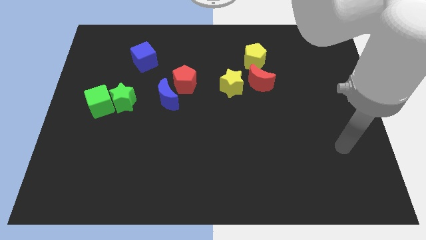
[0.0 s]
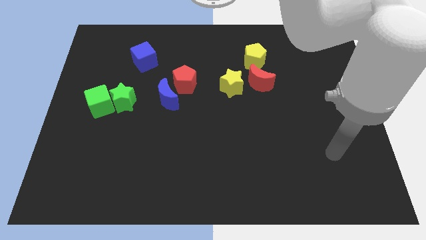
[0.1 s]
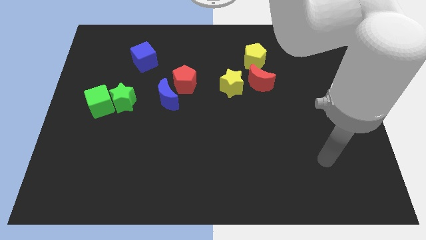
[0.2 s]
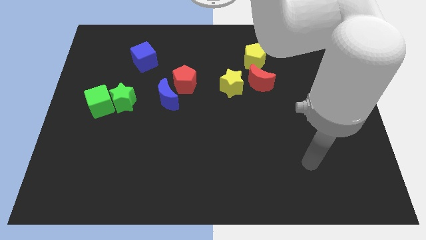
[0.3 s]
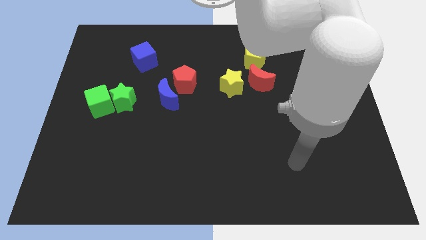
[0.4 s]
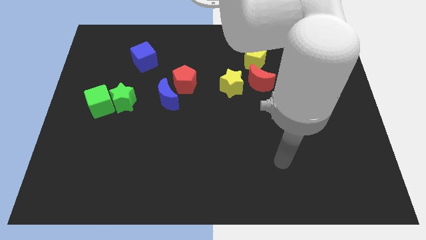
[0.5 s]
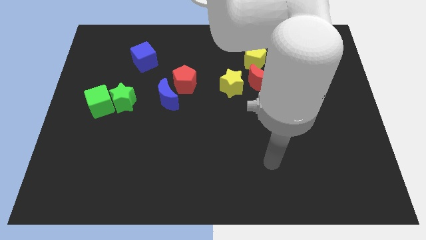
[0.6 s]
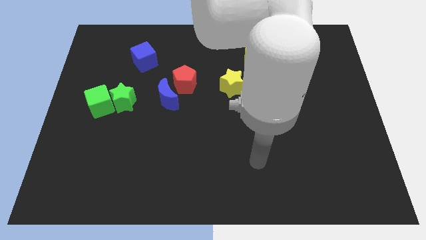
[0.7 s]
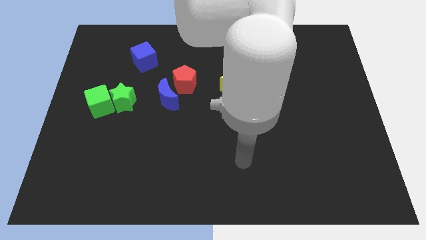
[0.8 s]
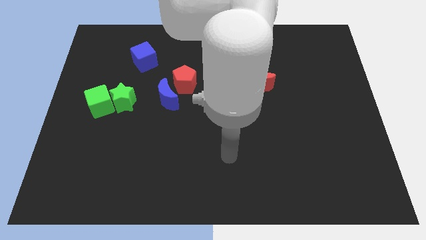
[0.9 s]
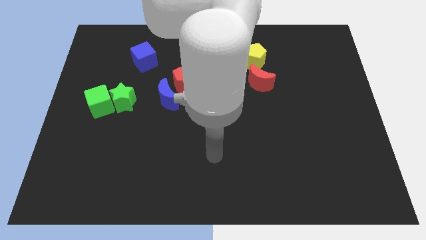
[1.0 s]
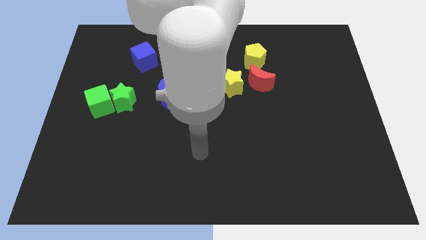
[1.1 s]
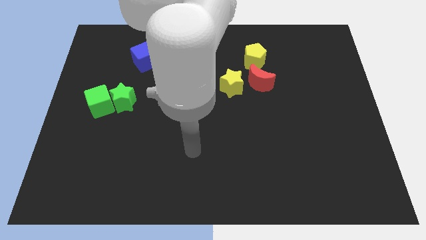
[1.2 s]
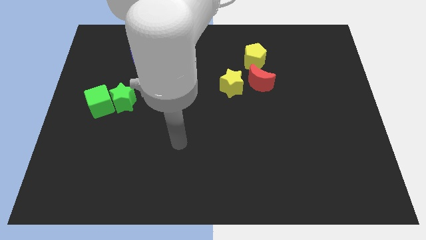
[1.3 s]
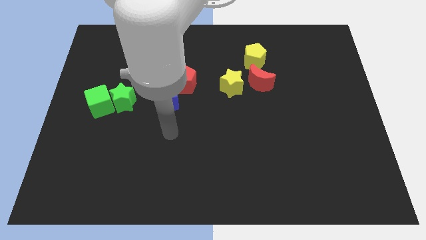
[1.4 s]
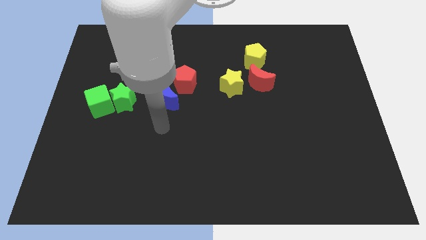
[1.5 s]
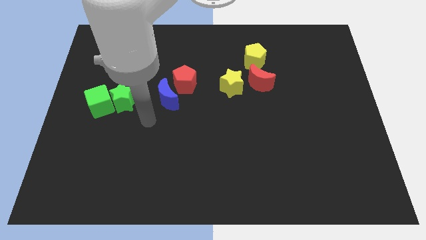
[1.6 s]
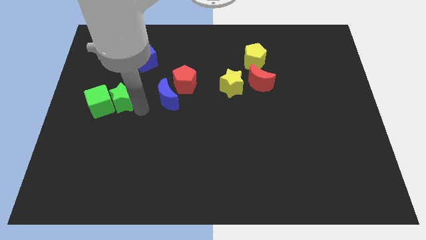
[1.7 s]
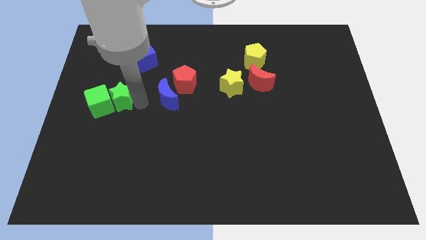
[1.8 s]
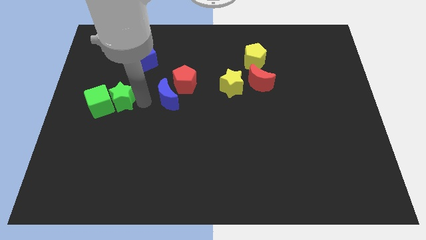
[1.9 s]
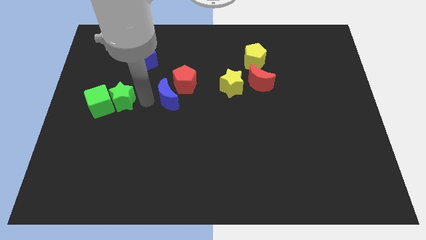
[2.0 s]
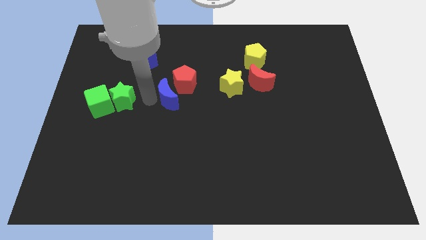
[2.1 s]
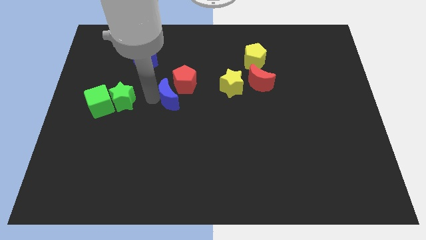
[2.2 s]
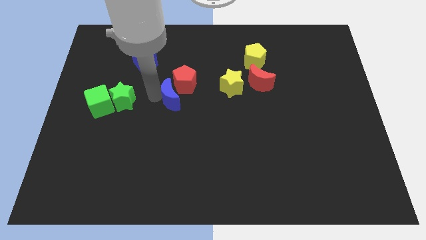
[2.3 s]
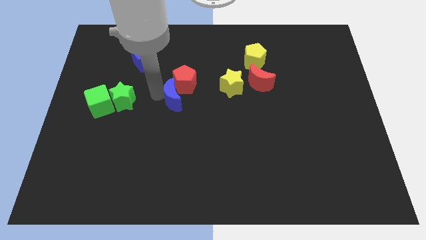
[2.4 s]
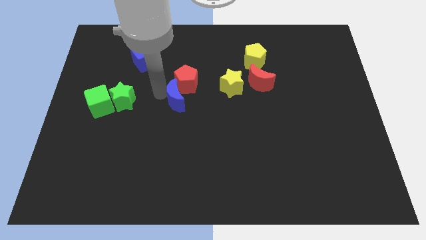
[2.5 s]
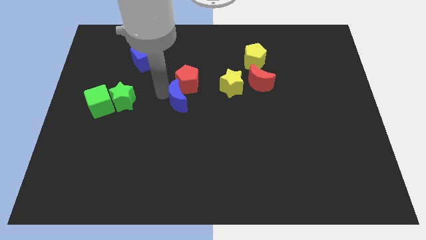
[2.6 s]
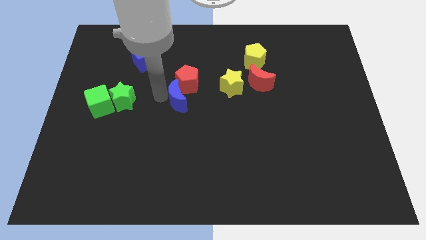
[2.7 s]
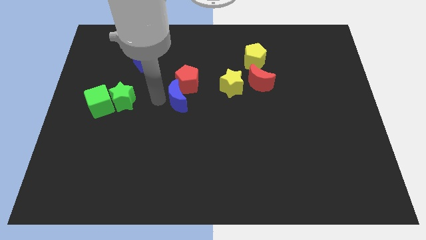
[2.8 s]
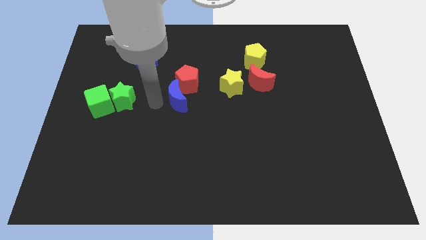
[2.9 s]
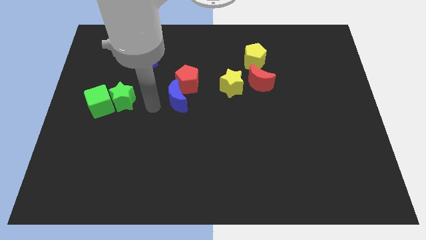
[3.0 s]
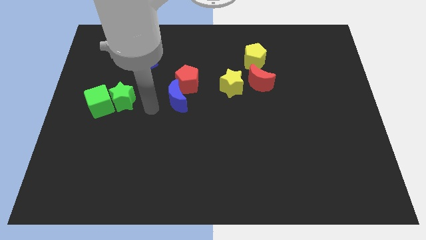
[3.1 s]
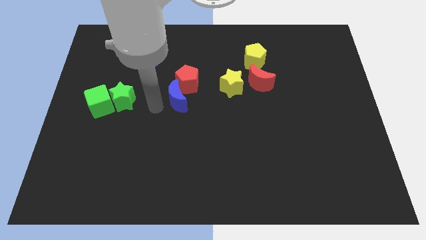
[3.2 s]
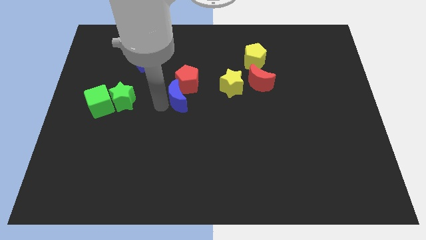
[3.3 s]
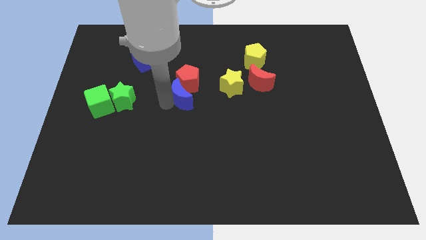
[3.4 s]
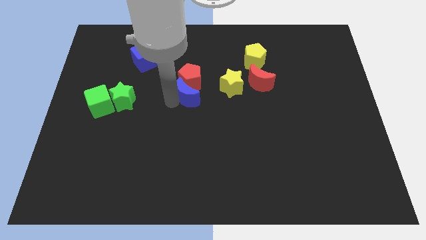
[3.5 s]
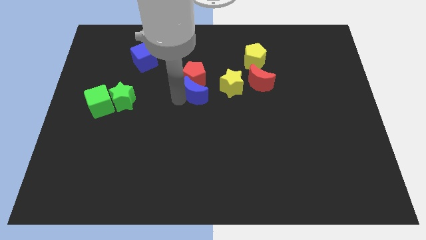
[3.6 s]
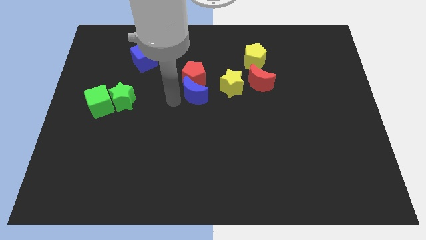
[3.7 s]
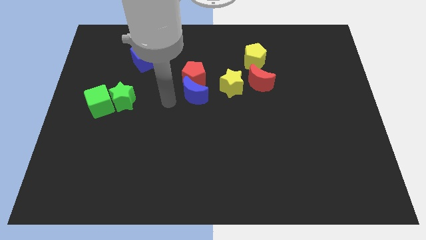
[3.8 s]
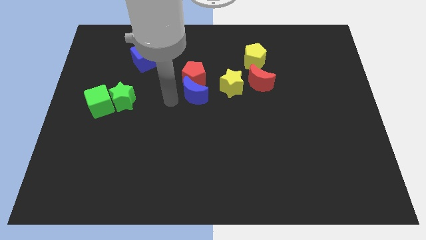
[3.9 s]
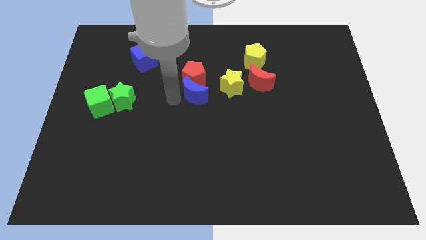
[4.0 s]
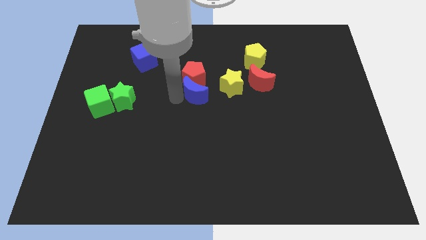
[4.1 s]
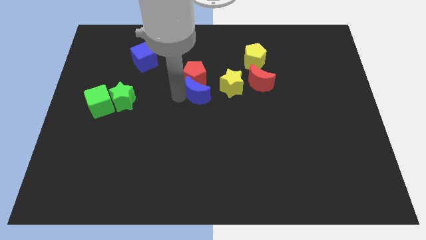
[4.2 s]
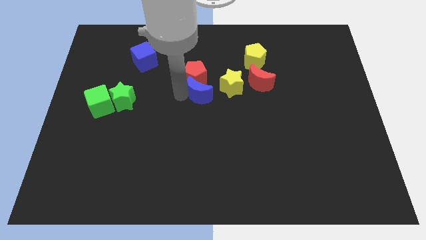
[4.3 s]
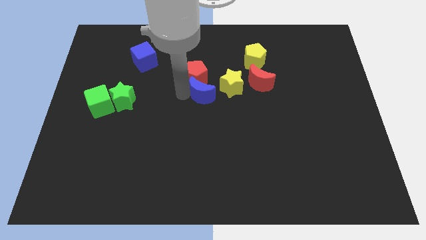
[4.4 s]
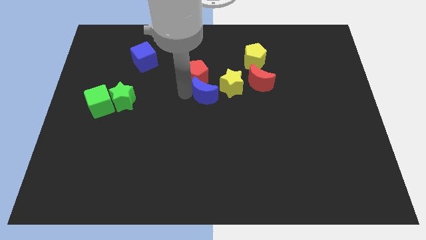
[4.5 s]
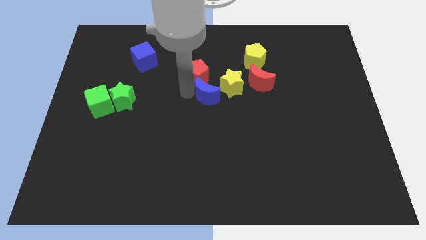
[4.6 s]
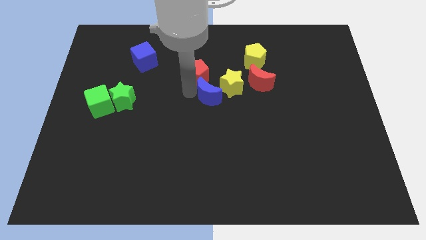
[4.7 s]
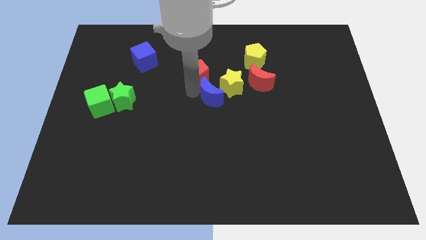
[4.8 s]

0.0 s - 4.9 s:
slide the blue moon next to the yellow star

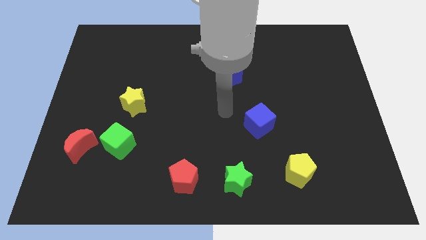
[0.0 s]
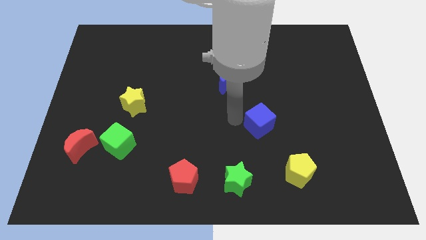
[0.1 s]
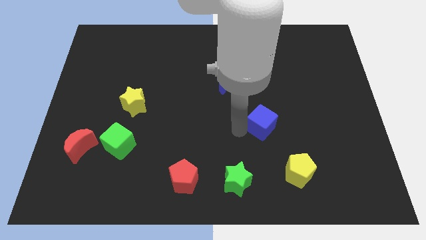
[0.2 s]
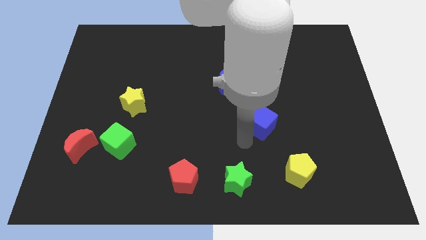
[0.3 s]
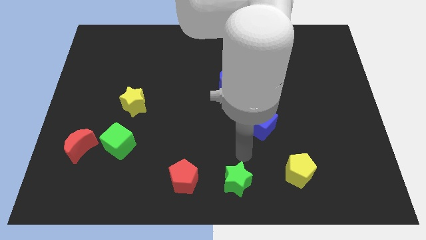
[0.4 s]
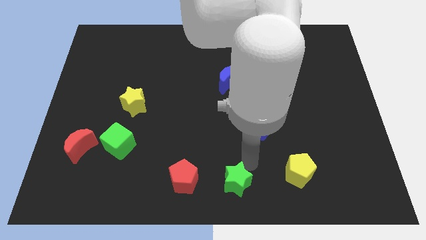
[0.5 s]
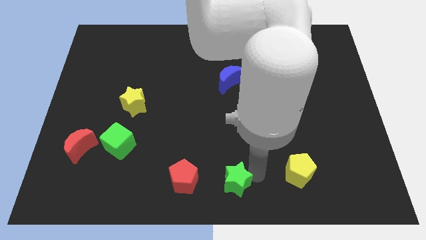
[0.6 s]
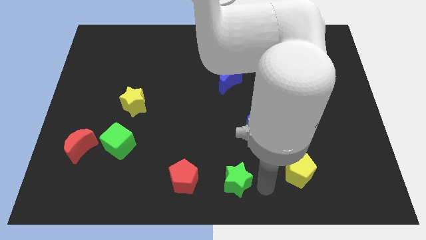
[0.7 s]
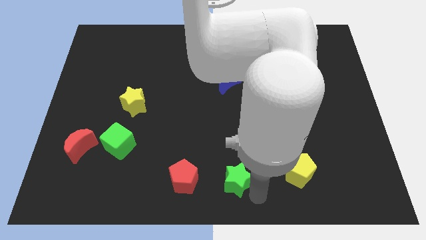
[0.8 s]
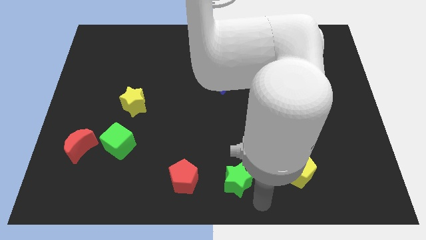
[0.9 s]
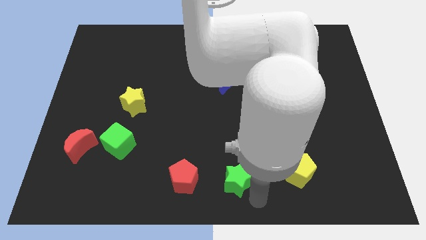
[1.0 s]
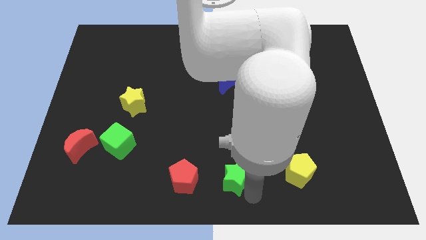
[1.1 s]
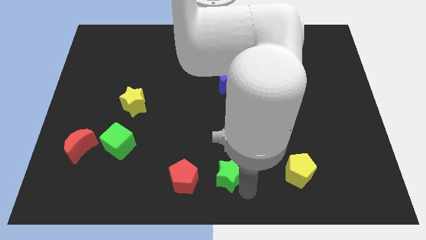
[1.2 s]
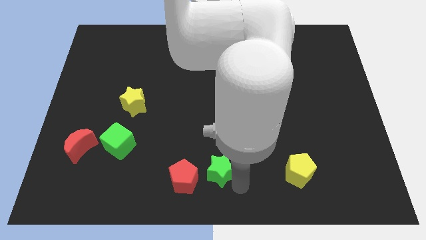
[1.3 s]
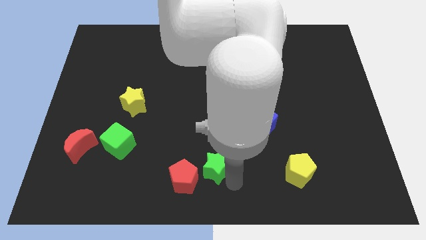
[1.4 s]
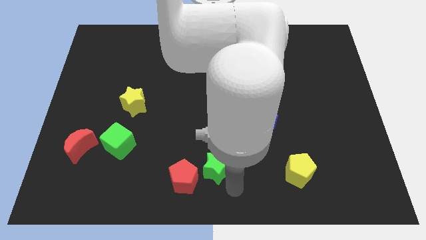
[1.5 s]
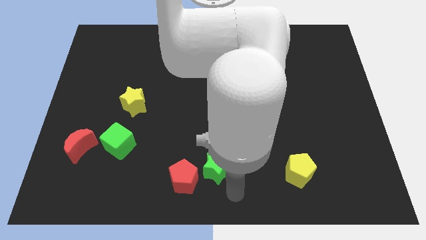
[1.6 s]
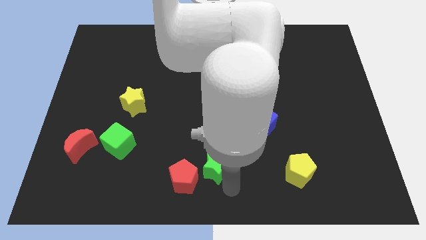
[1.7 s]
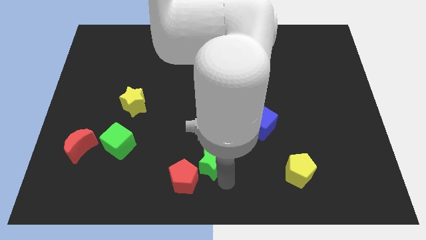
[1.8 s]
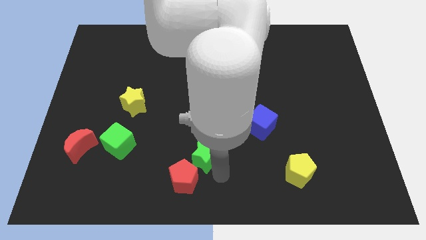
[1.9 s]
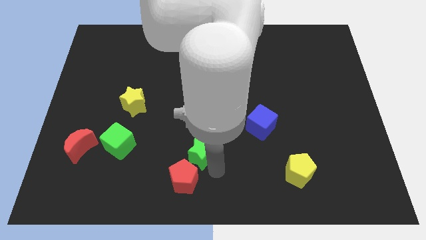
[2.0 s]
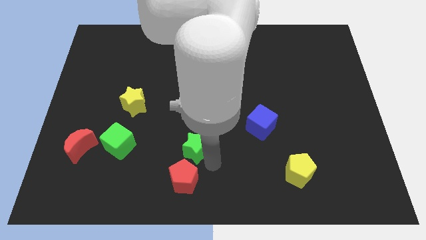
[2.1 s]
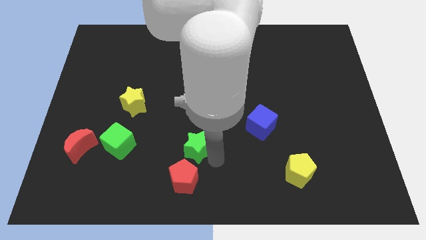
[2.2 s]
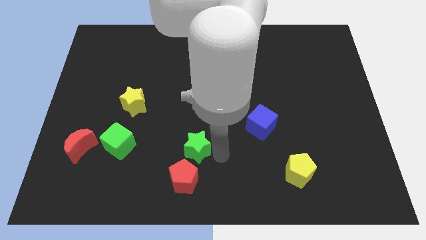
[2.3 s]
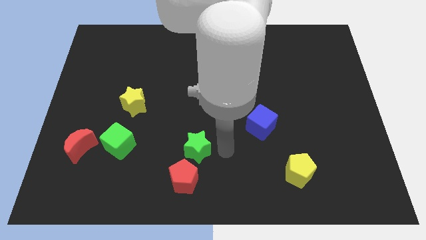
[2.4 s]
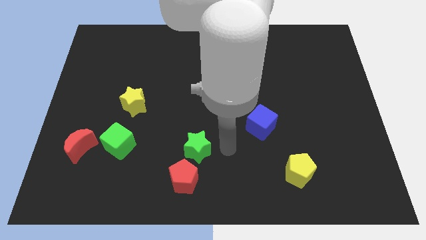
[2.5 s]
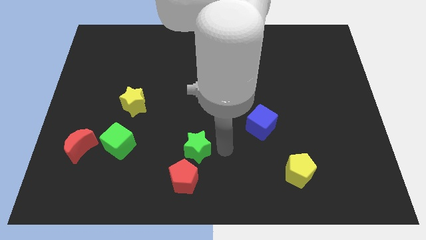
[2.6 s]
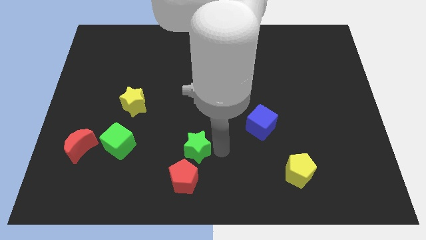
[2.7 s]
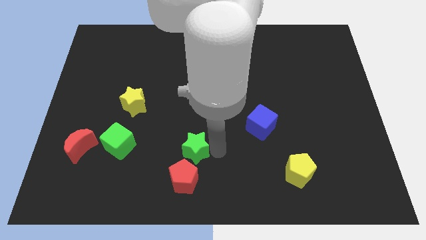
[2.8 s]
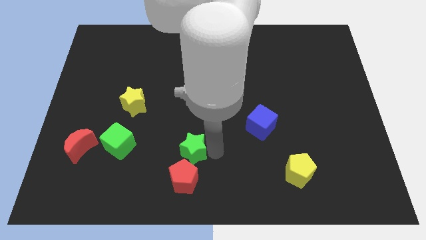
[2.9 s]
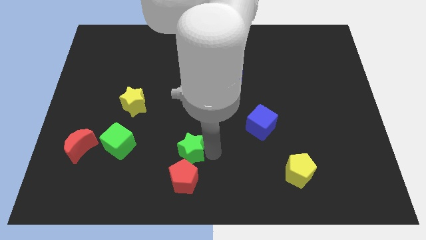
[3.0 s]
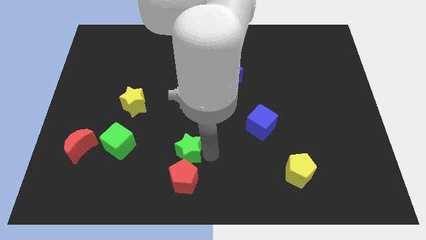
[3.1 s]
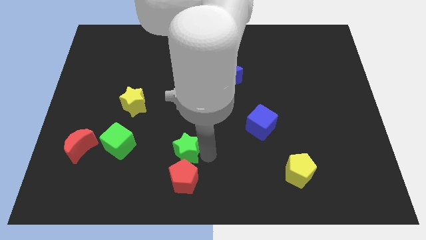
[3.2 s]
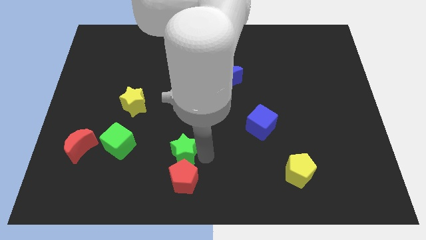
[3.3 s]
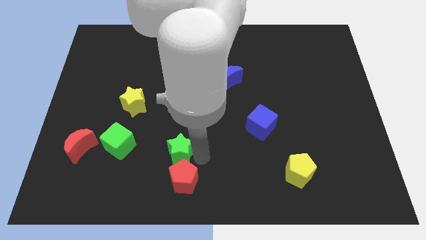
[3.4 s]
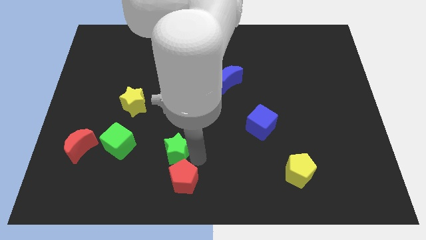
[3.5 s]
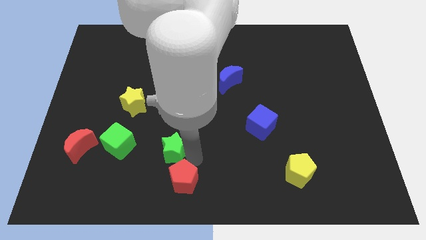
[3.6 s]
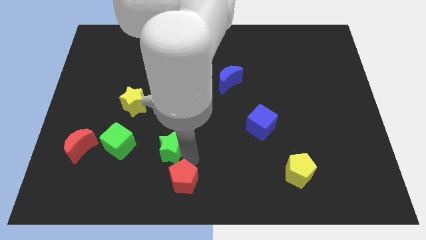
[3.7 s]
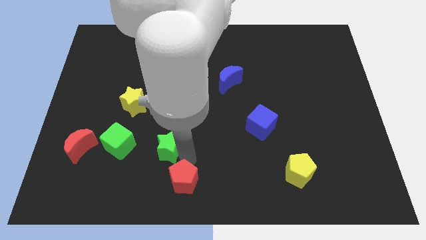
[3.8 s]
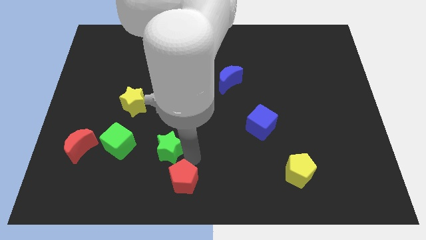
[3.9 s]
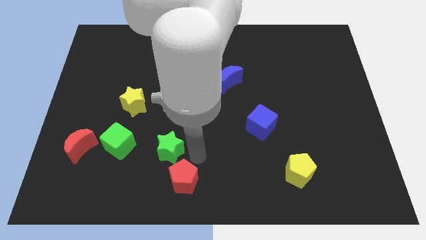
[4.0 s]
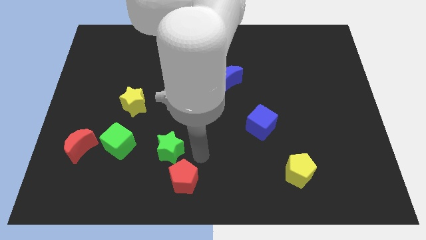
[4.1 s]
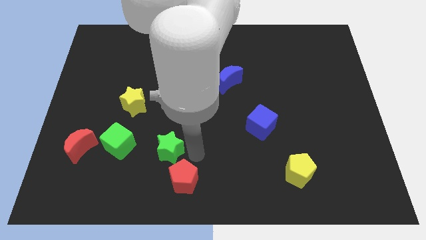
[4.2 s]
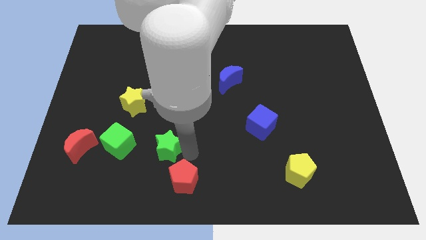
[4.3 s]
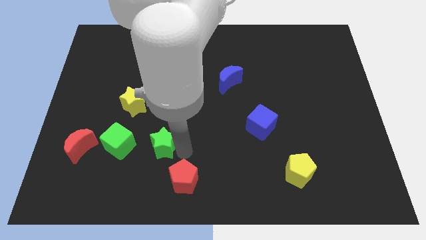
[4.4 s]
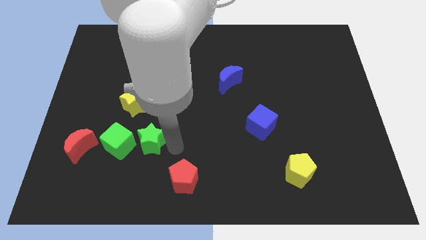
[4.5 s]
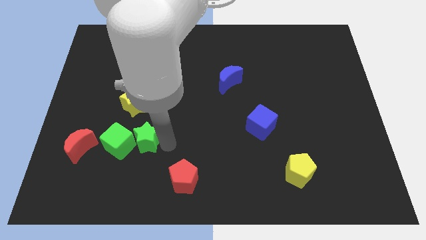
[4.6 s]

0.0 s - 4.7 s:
slide the green star close to the green cube
